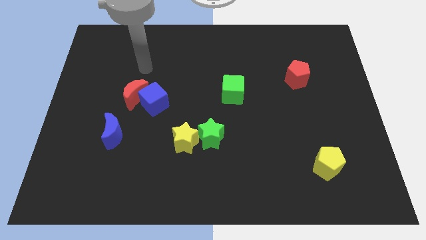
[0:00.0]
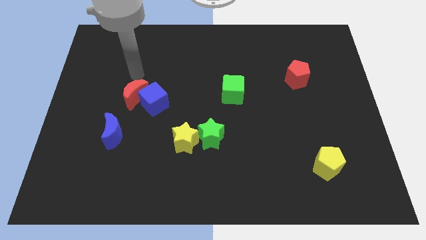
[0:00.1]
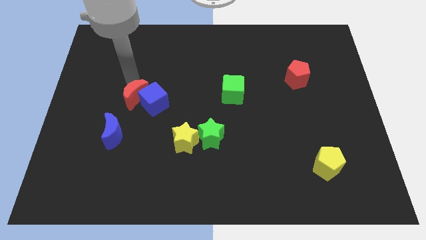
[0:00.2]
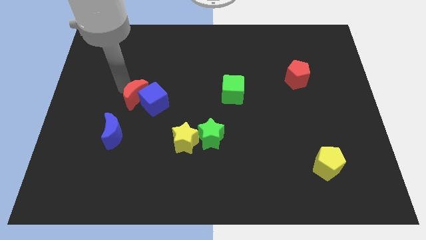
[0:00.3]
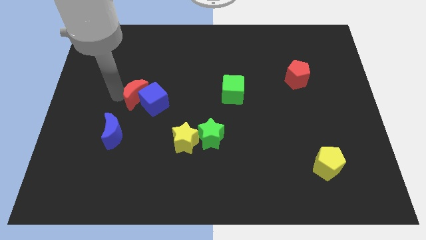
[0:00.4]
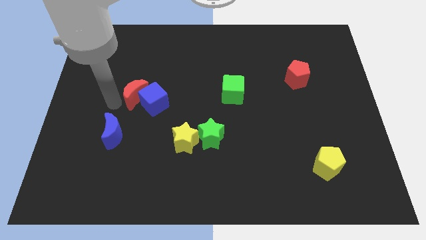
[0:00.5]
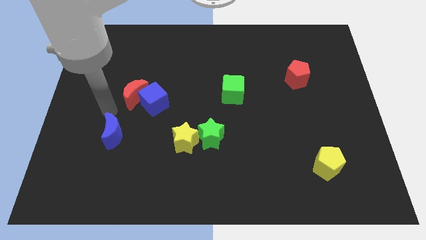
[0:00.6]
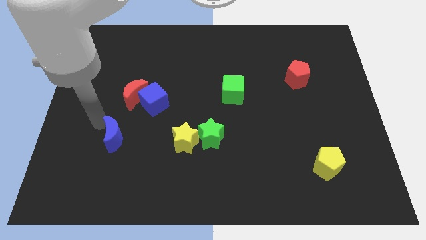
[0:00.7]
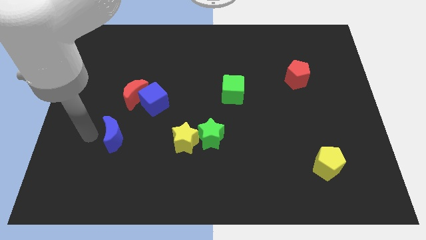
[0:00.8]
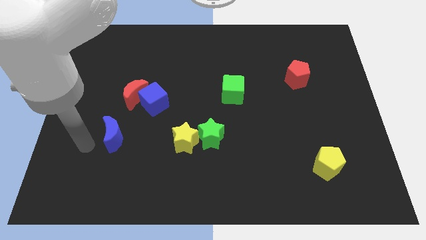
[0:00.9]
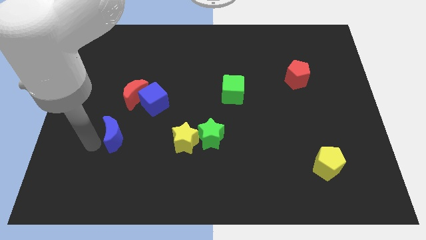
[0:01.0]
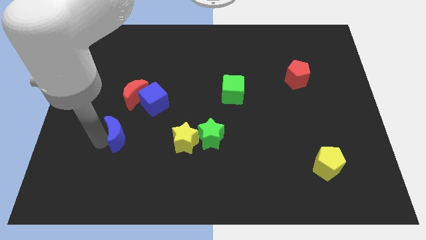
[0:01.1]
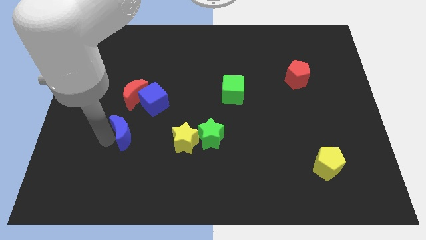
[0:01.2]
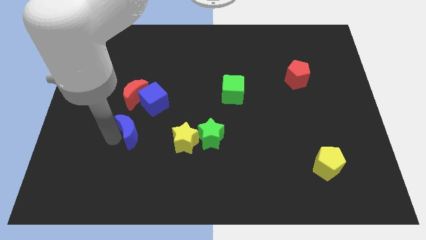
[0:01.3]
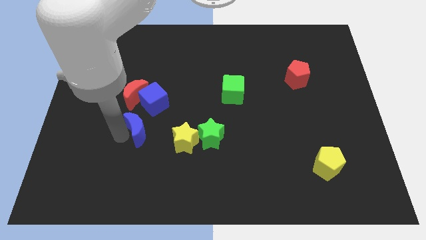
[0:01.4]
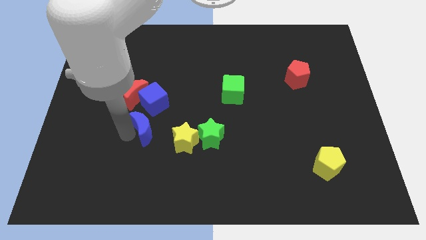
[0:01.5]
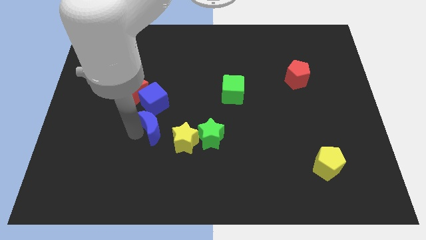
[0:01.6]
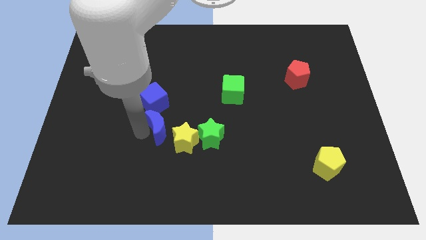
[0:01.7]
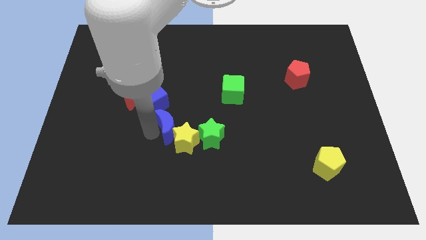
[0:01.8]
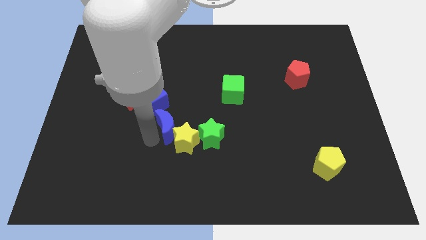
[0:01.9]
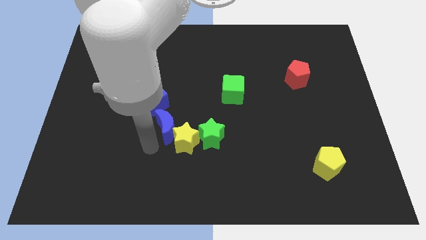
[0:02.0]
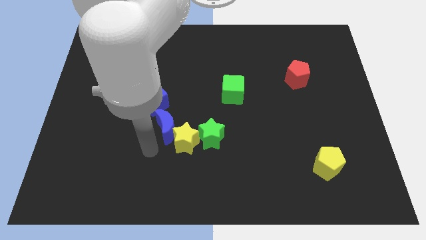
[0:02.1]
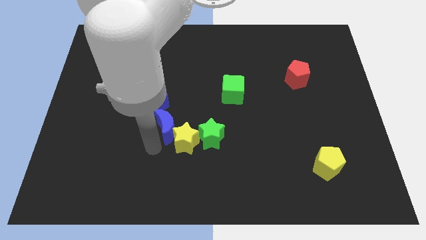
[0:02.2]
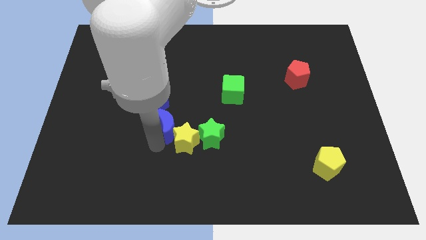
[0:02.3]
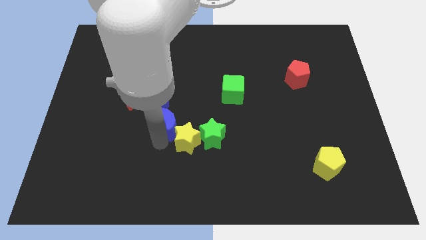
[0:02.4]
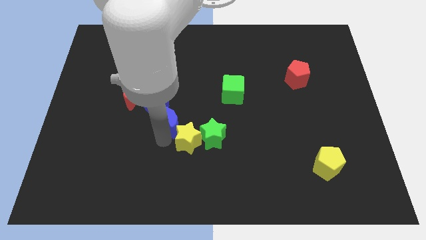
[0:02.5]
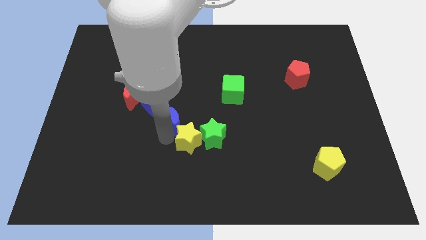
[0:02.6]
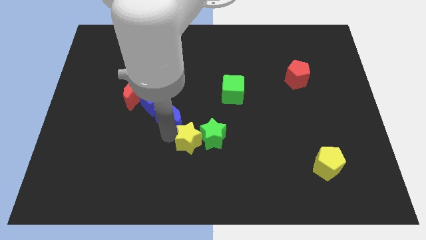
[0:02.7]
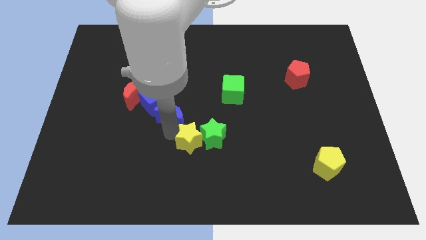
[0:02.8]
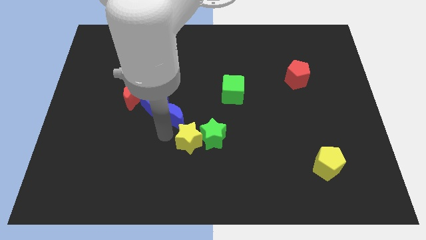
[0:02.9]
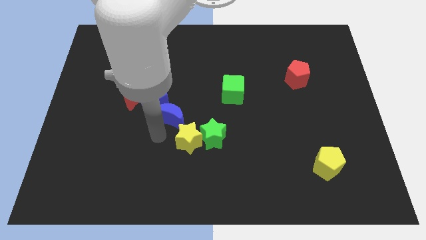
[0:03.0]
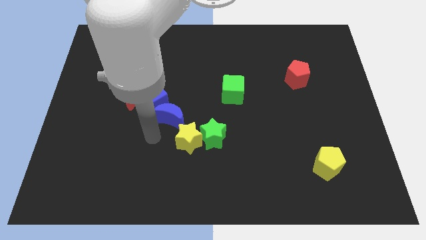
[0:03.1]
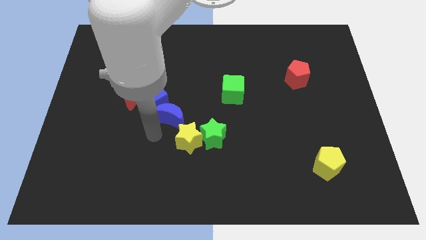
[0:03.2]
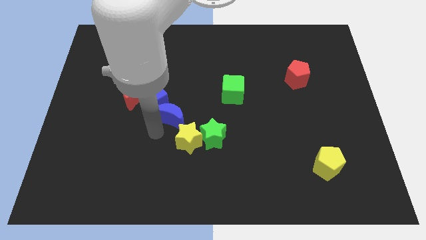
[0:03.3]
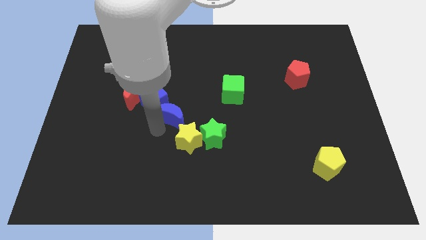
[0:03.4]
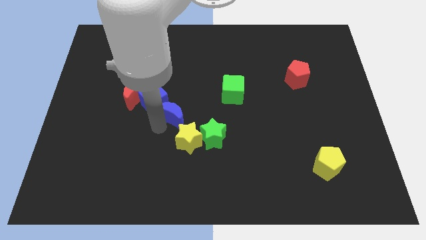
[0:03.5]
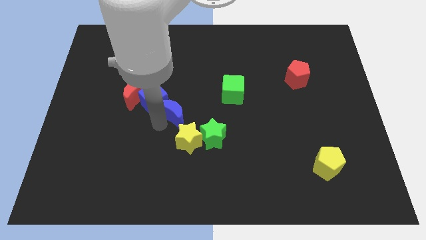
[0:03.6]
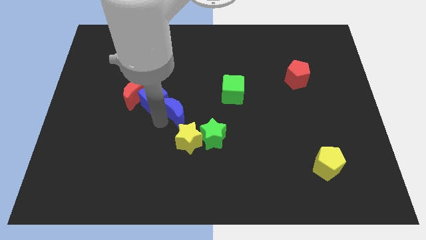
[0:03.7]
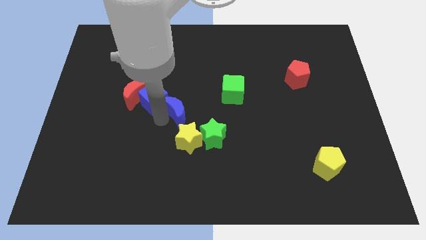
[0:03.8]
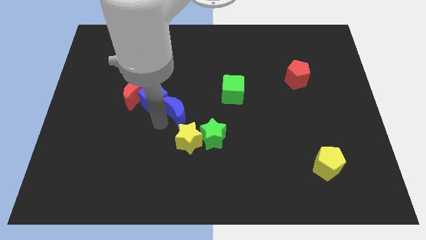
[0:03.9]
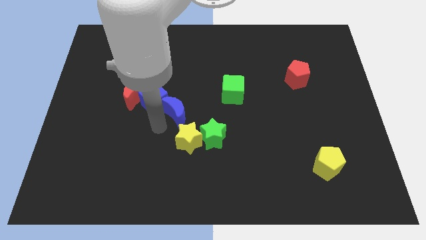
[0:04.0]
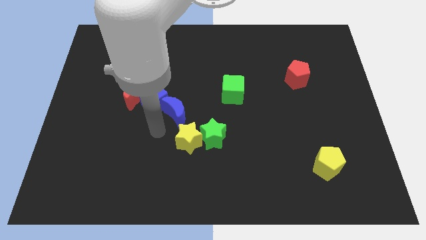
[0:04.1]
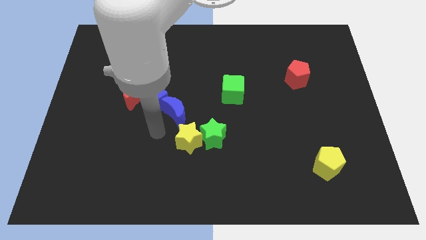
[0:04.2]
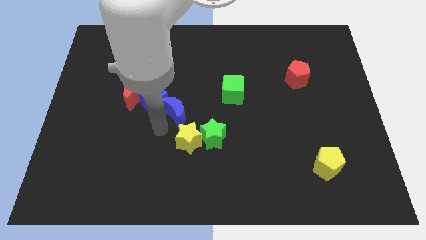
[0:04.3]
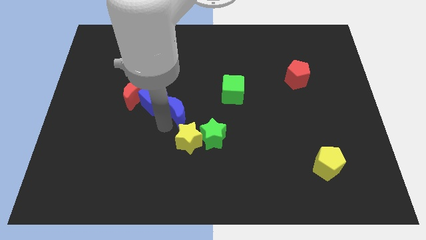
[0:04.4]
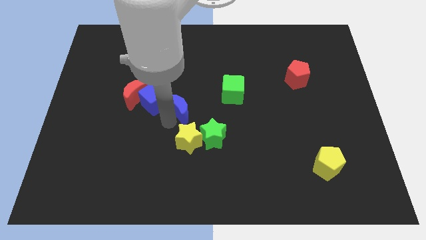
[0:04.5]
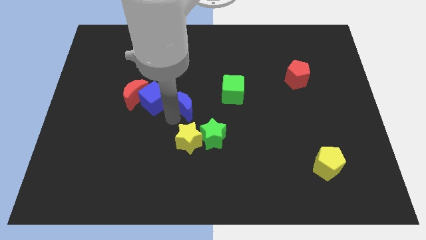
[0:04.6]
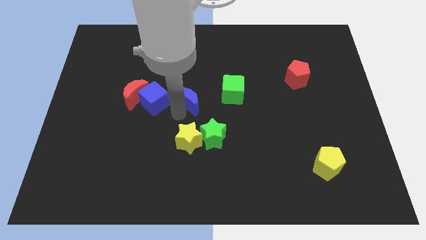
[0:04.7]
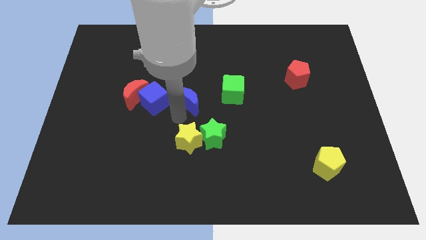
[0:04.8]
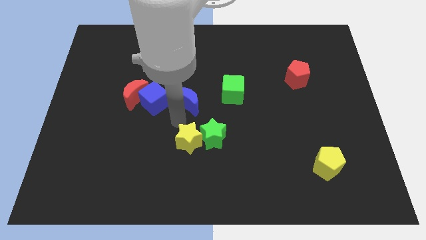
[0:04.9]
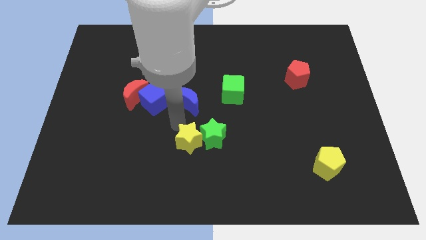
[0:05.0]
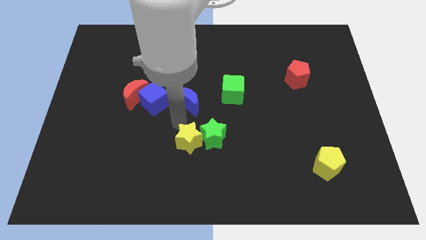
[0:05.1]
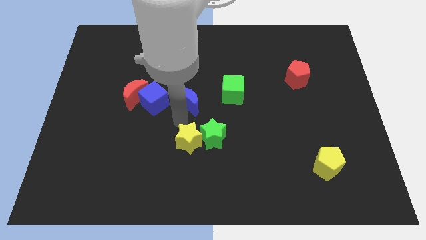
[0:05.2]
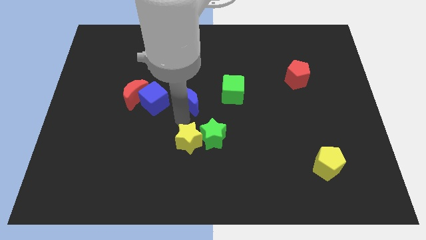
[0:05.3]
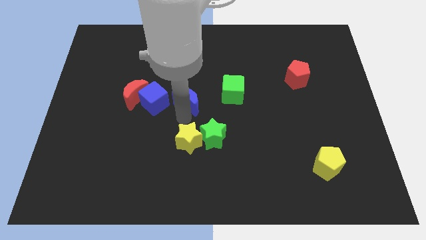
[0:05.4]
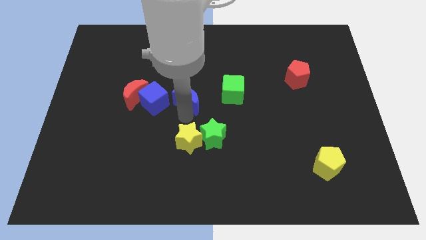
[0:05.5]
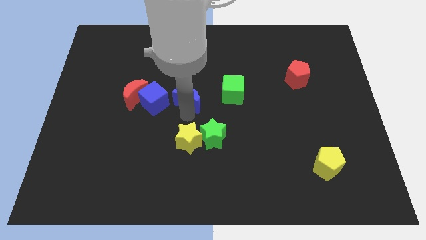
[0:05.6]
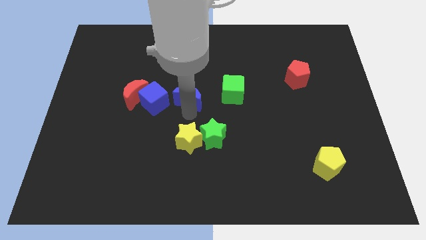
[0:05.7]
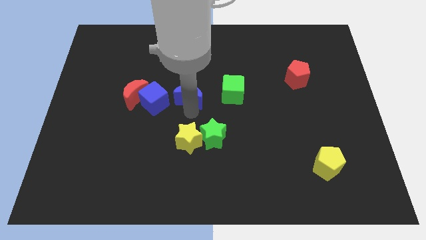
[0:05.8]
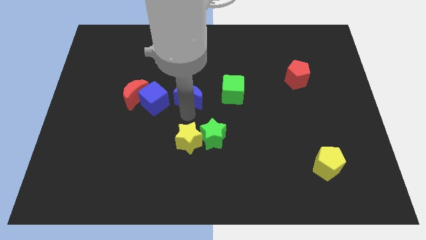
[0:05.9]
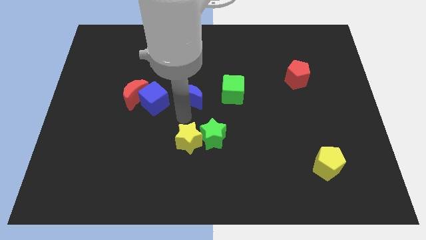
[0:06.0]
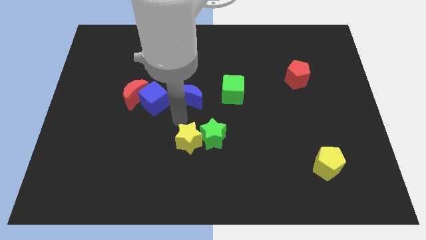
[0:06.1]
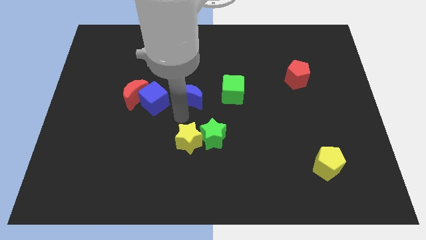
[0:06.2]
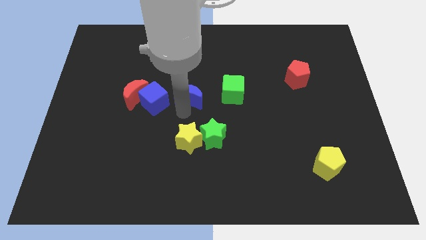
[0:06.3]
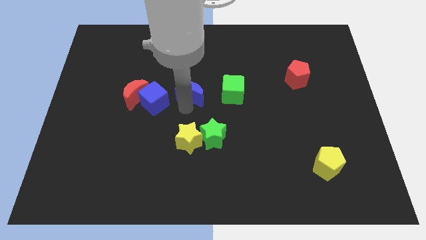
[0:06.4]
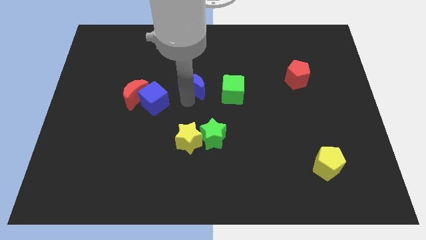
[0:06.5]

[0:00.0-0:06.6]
push the blue moon diagonally up and right

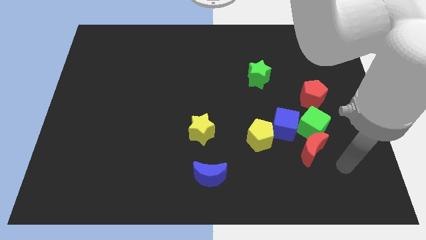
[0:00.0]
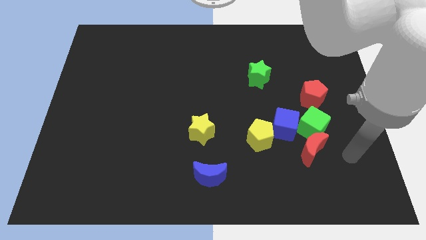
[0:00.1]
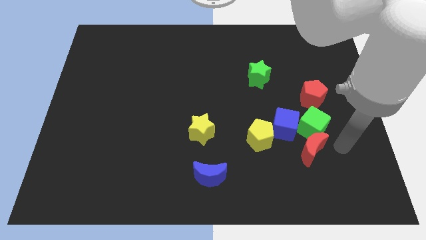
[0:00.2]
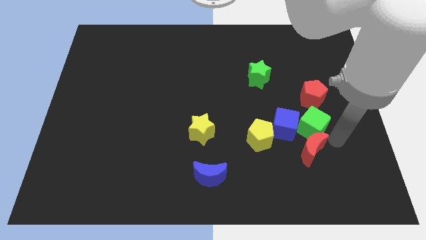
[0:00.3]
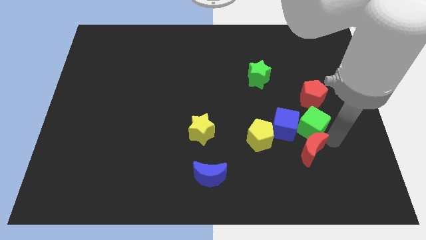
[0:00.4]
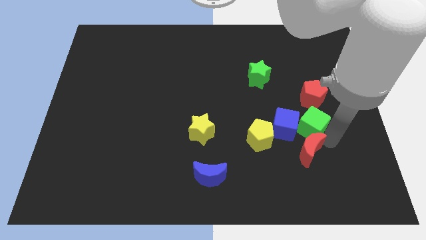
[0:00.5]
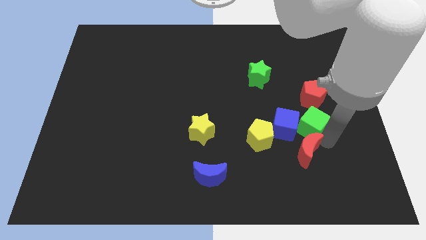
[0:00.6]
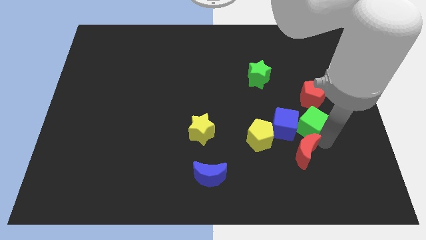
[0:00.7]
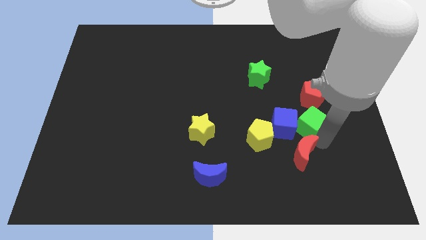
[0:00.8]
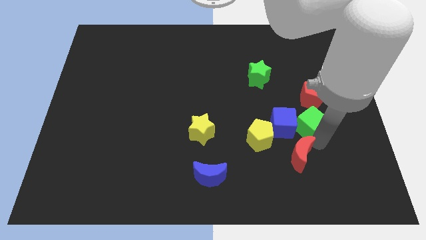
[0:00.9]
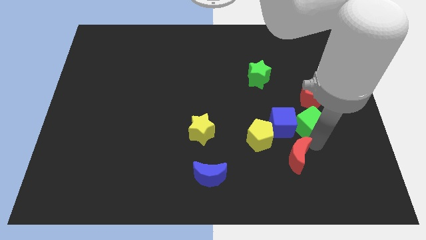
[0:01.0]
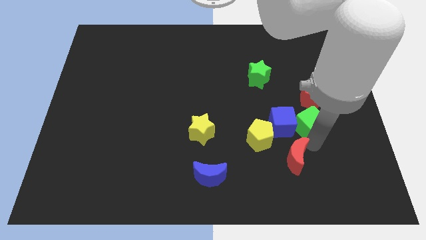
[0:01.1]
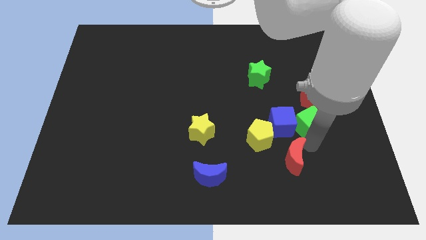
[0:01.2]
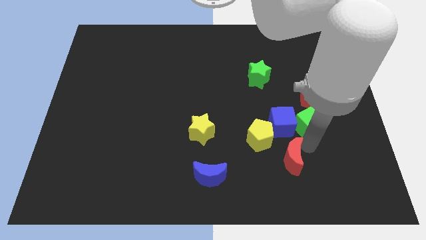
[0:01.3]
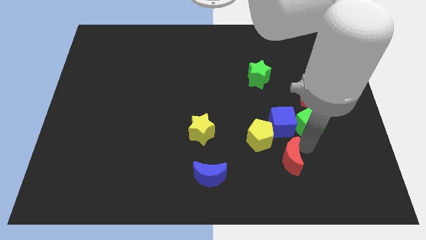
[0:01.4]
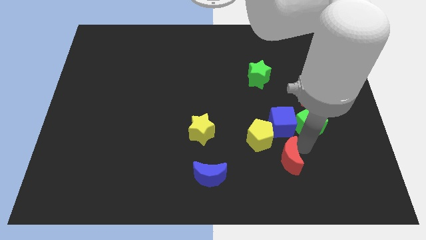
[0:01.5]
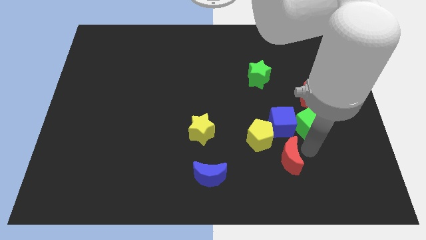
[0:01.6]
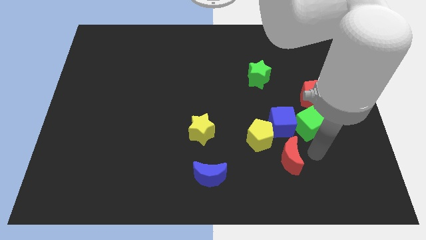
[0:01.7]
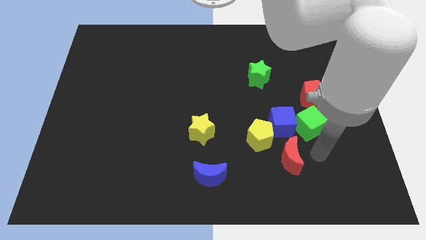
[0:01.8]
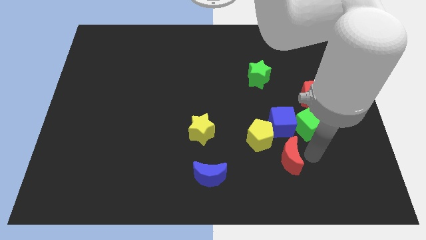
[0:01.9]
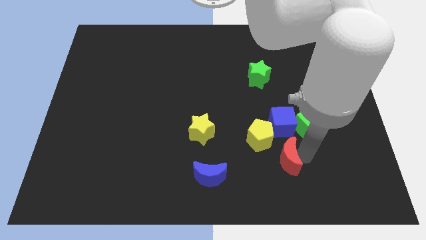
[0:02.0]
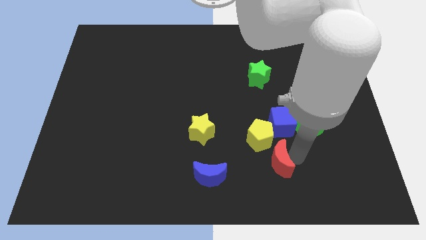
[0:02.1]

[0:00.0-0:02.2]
push the red moon a little to the left
